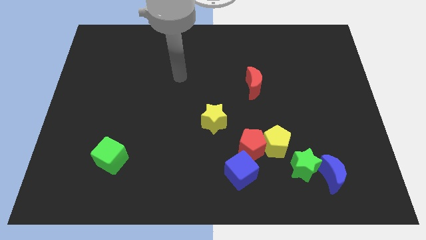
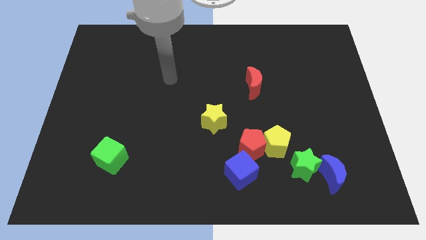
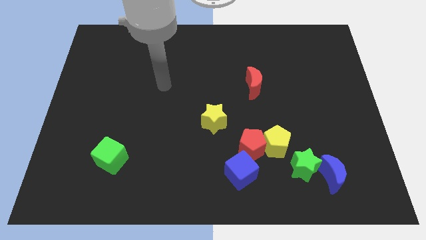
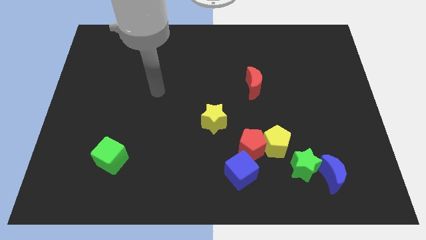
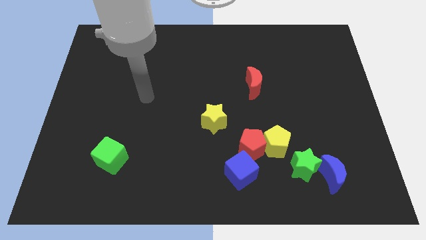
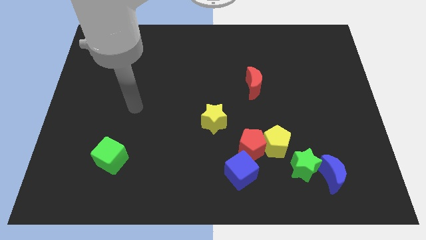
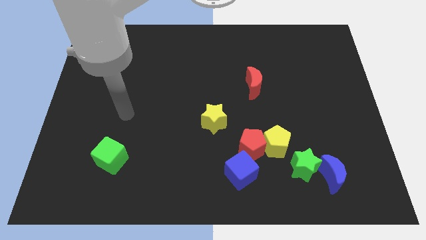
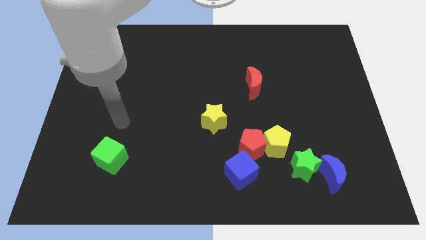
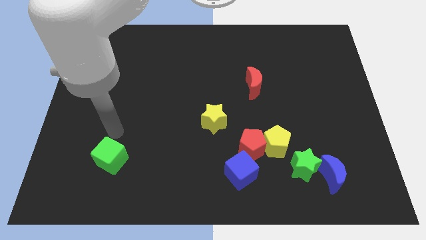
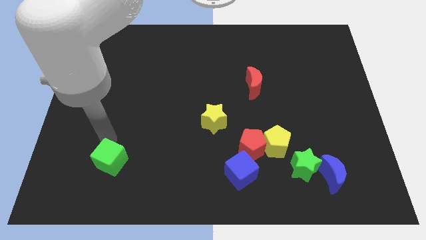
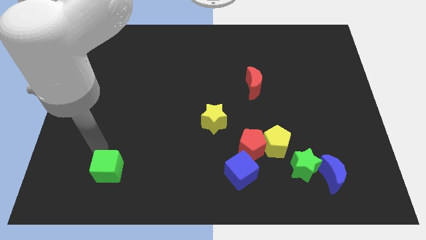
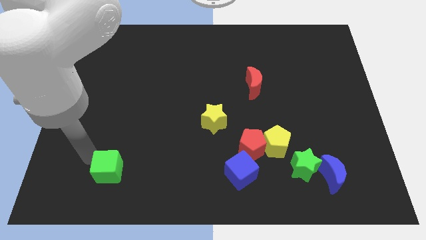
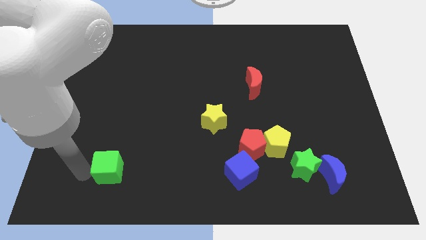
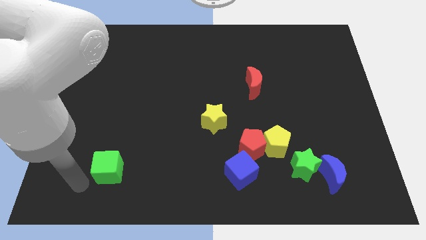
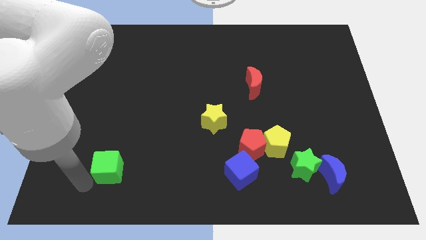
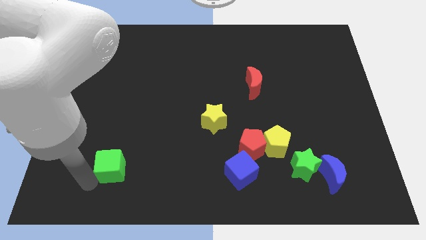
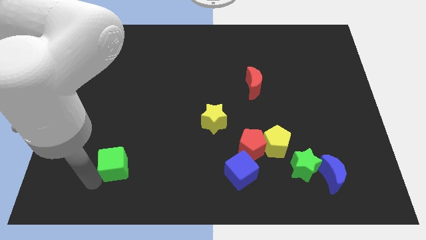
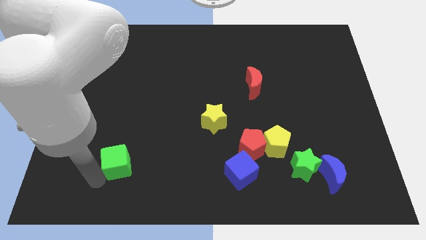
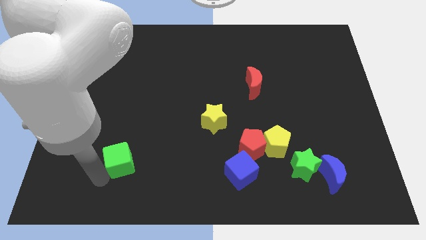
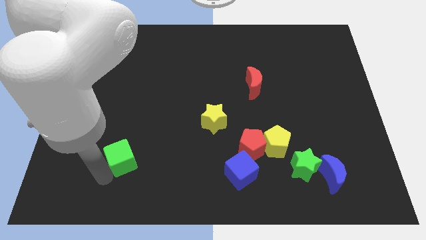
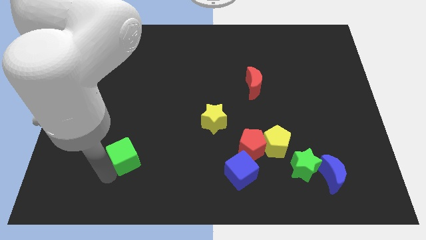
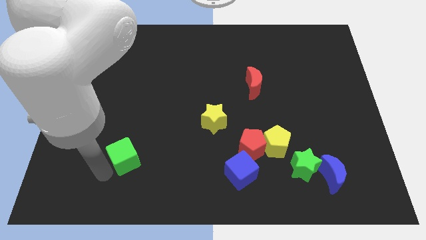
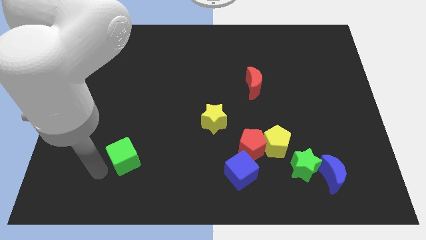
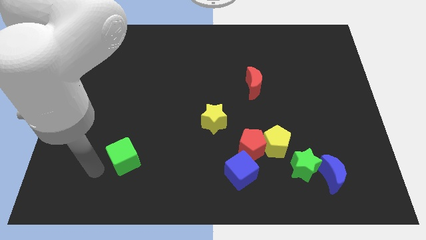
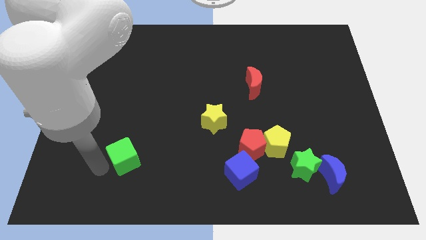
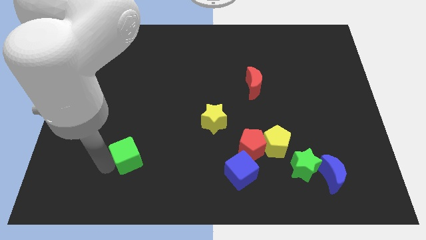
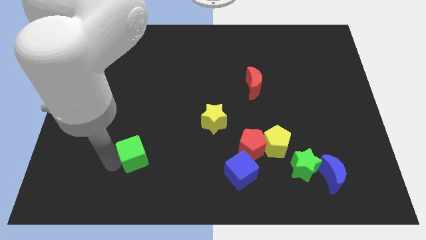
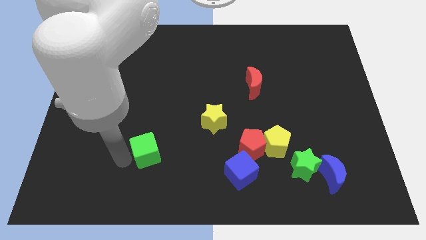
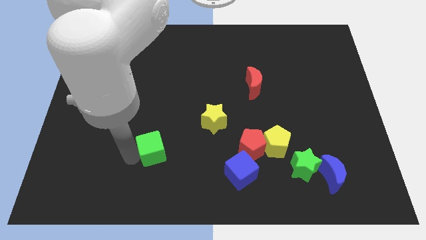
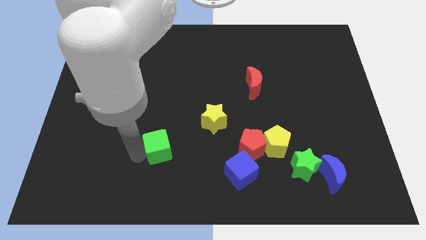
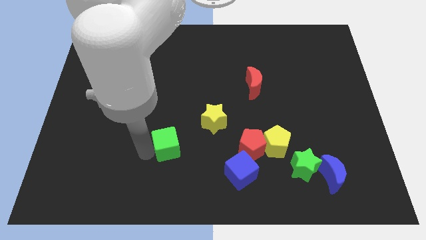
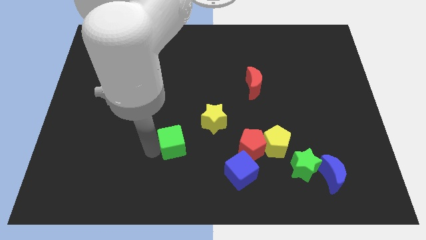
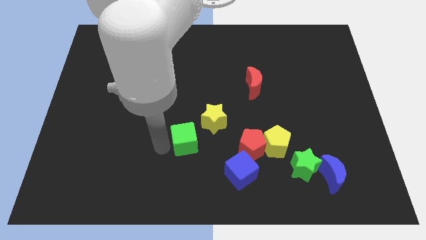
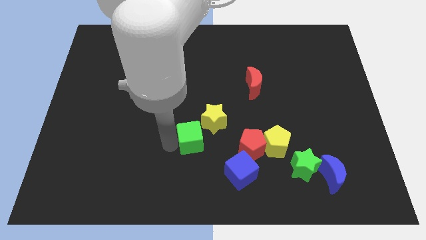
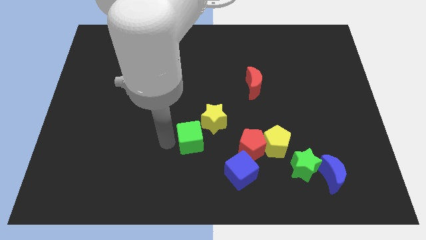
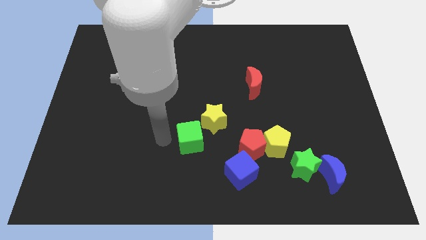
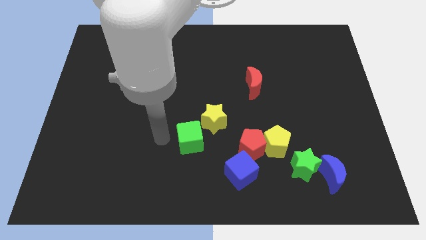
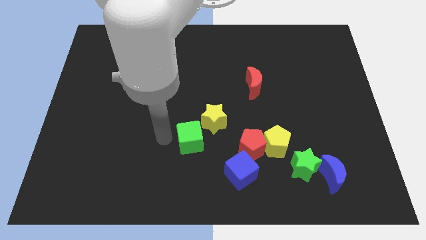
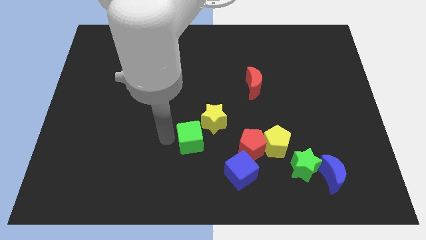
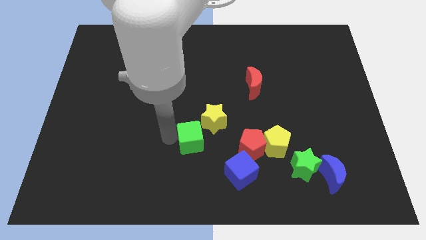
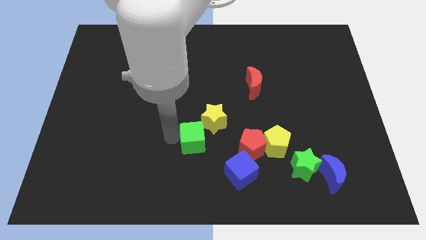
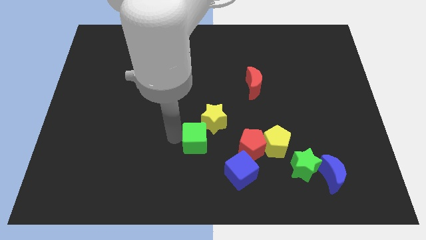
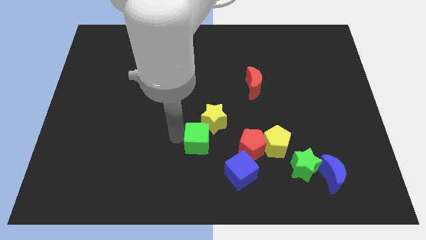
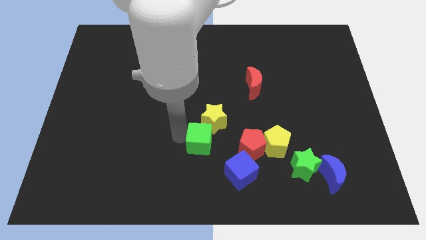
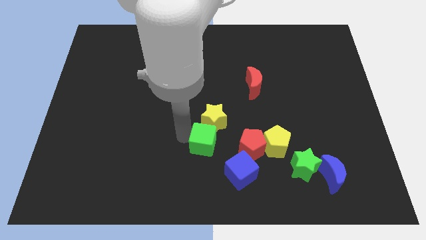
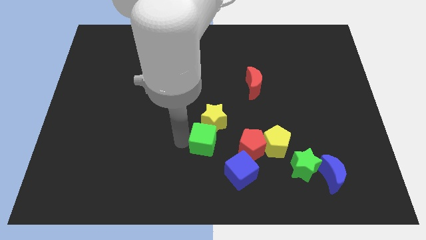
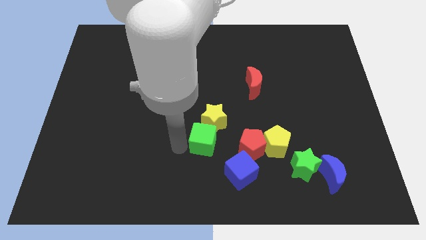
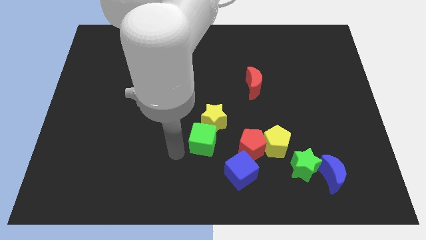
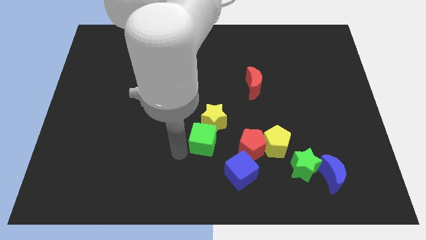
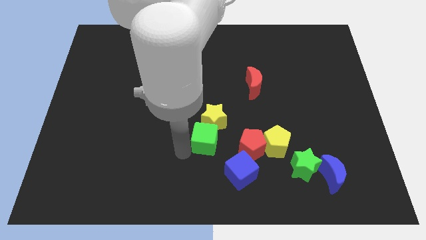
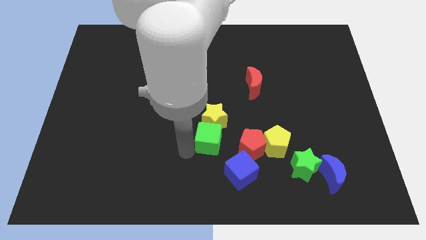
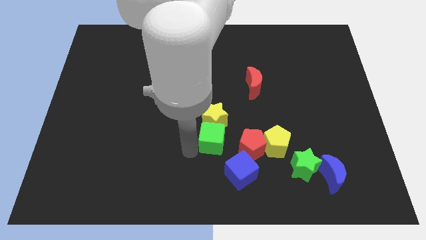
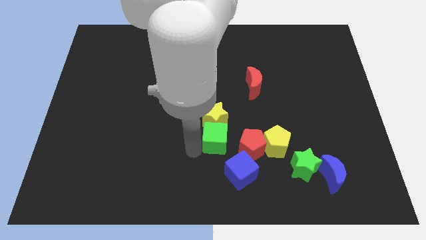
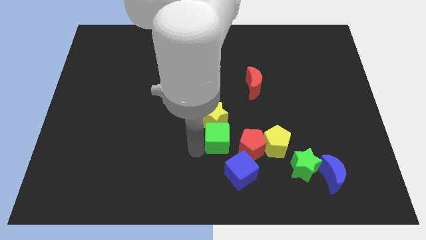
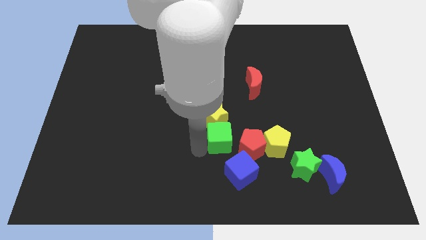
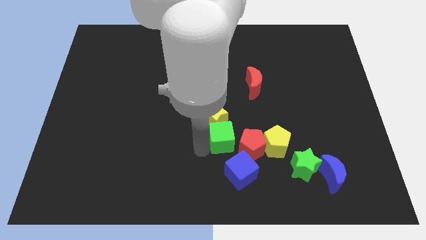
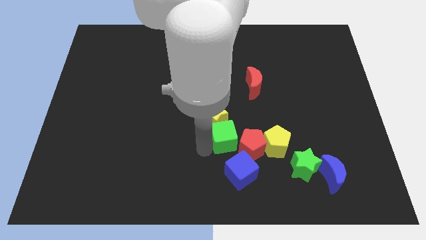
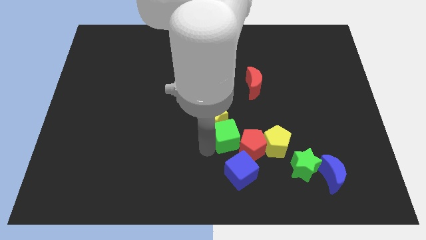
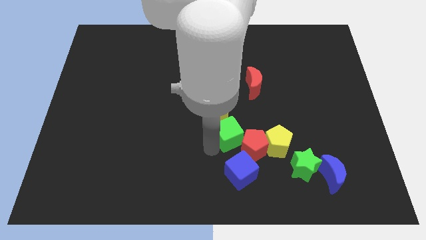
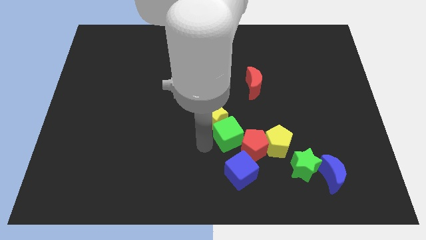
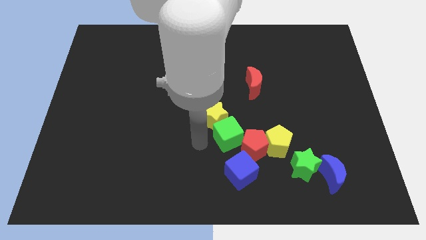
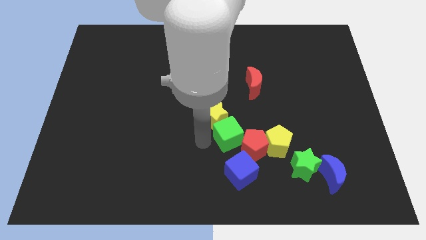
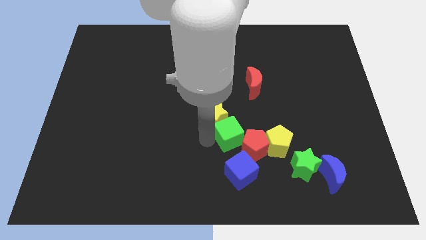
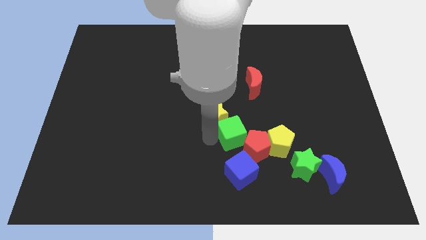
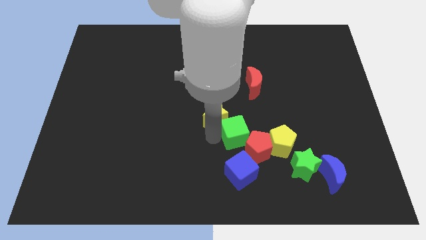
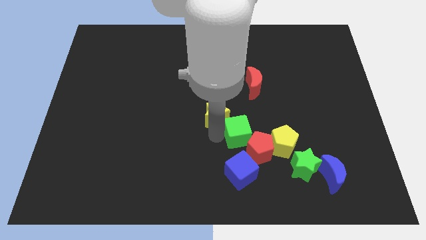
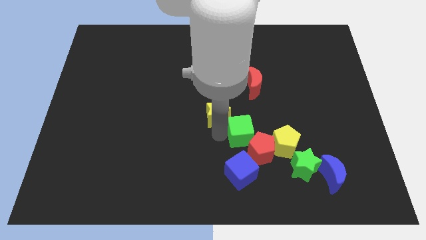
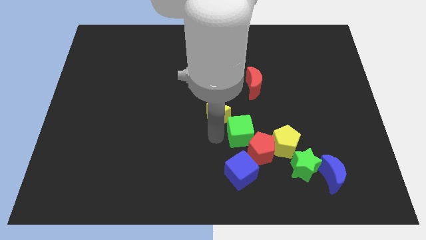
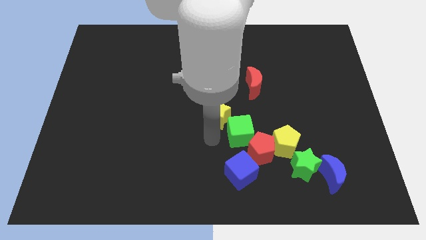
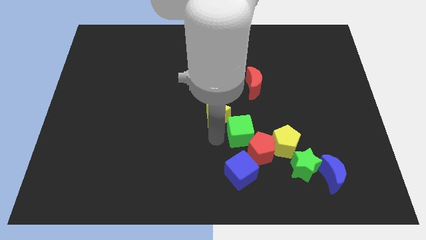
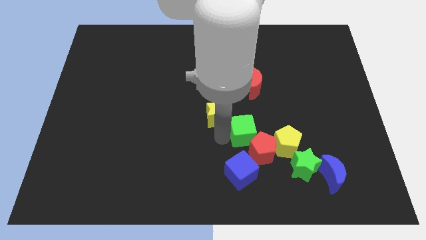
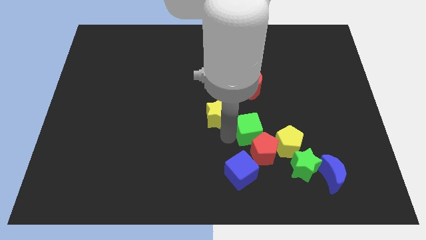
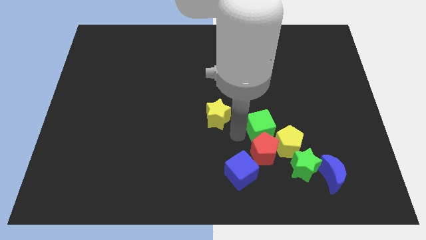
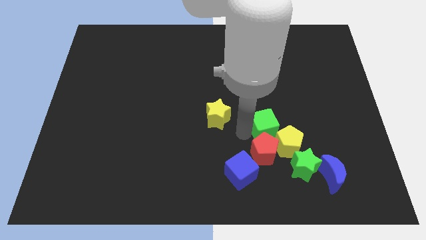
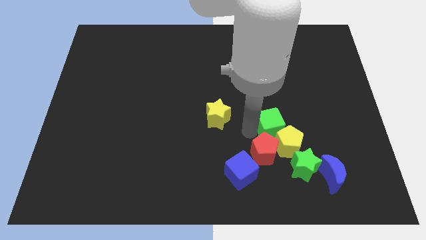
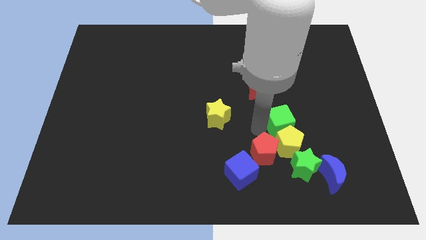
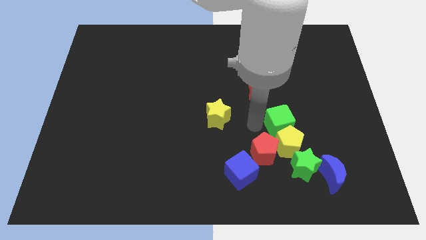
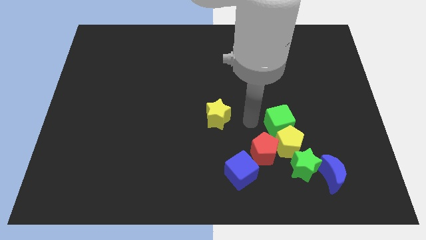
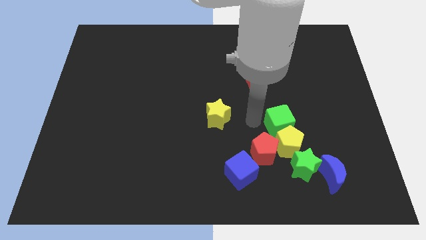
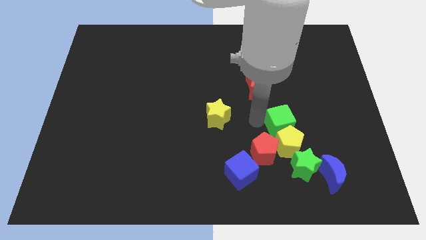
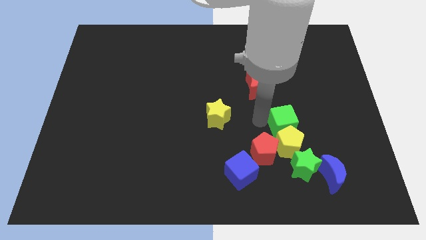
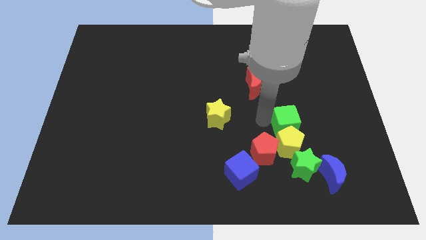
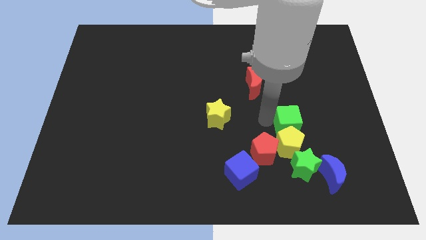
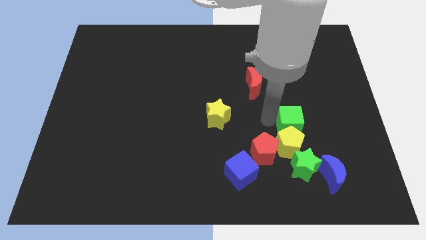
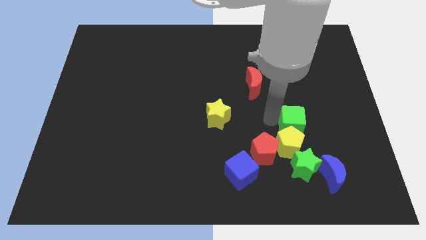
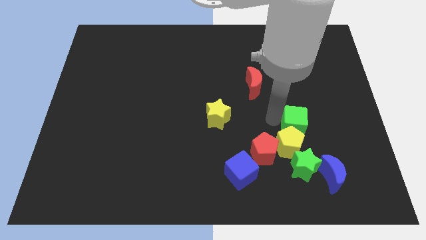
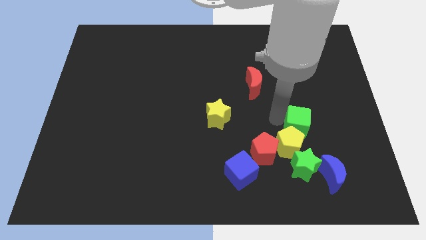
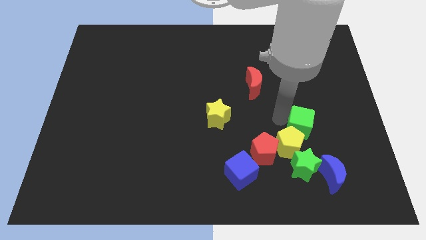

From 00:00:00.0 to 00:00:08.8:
put the green cube to the top of the blue moon
